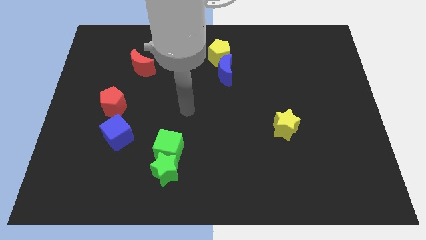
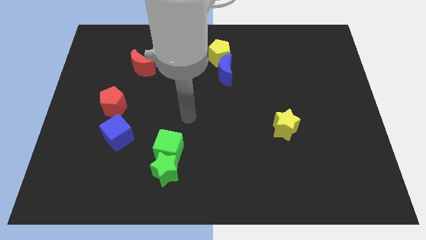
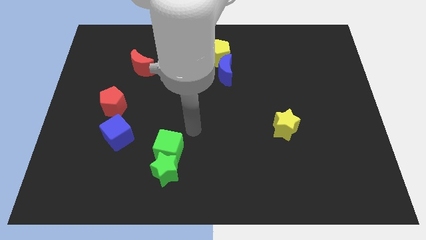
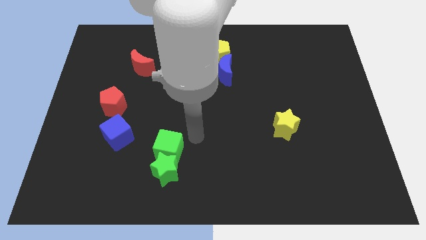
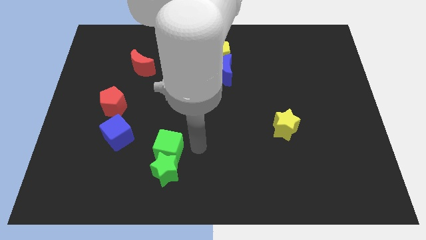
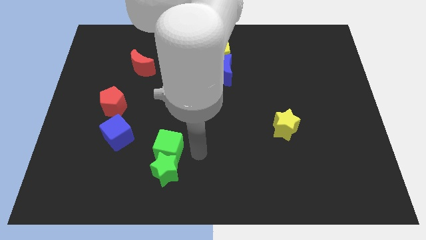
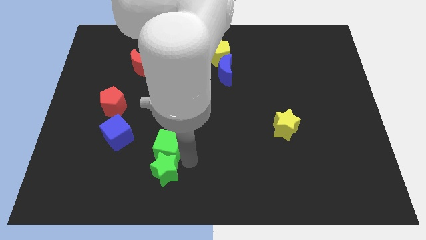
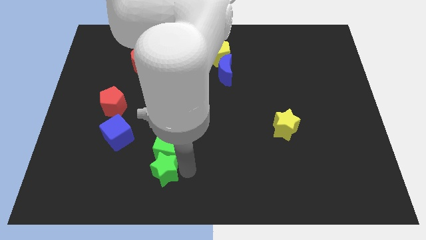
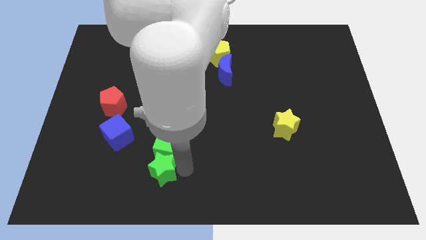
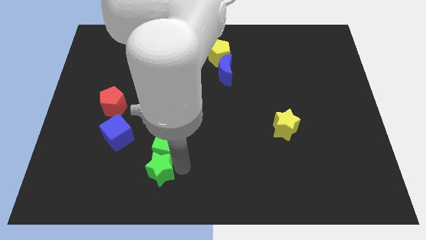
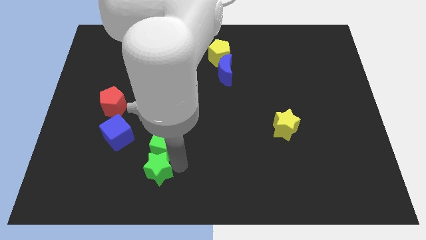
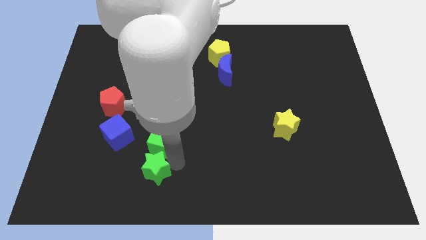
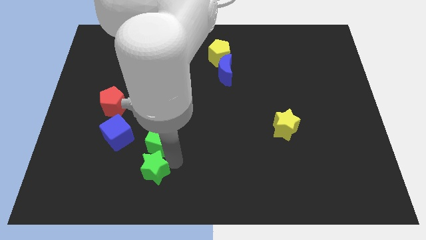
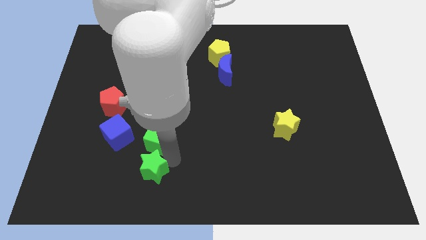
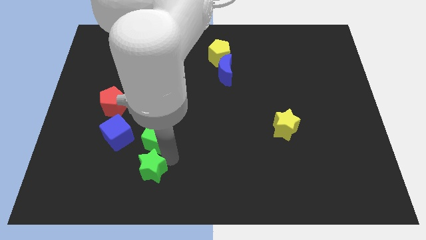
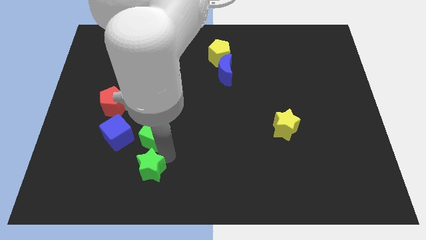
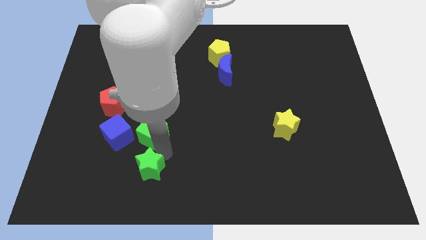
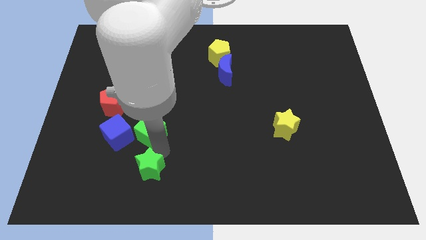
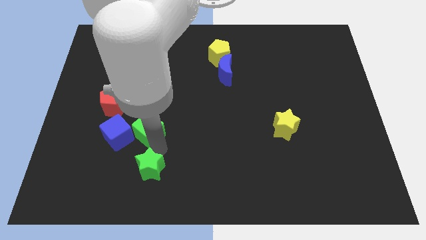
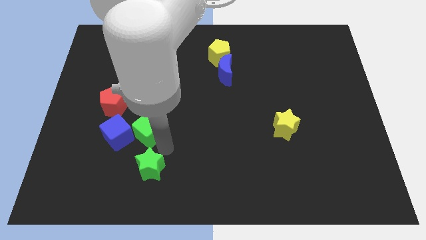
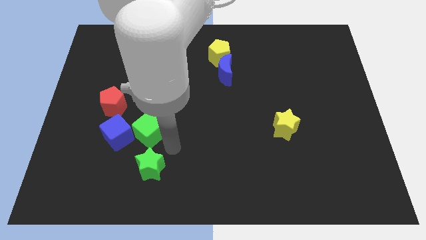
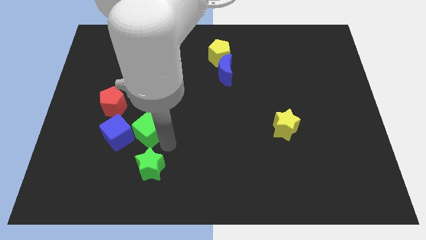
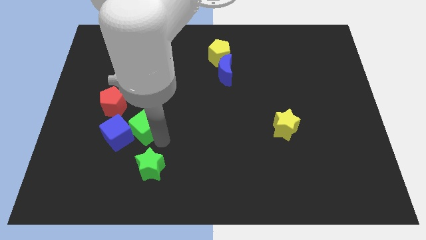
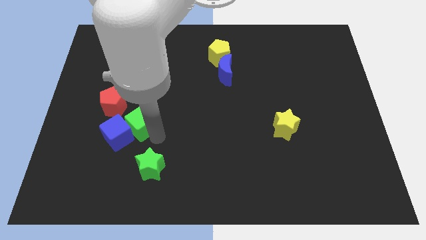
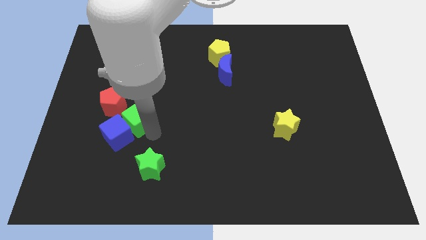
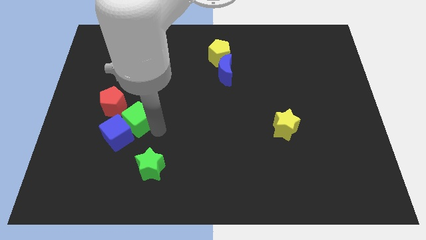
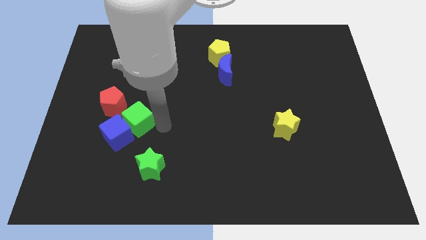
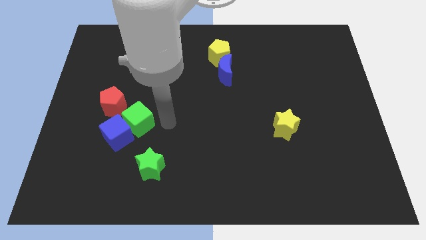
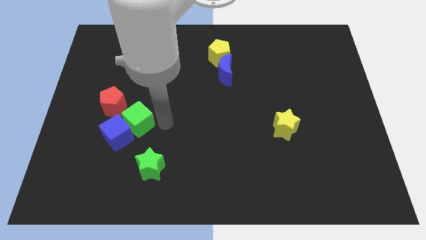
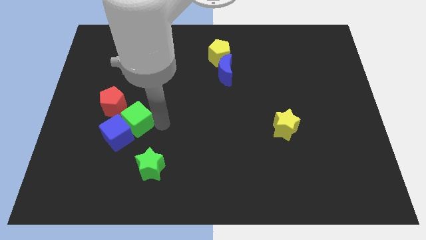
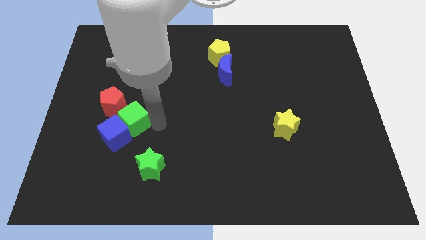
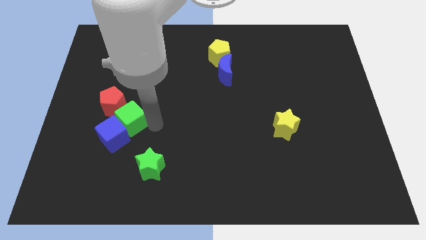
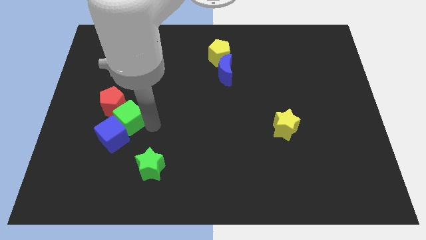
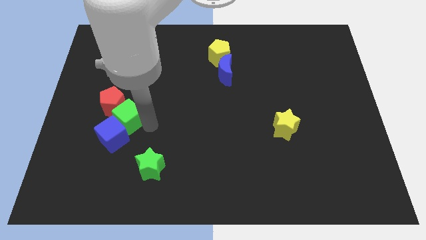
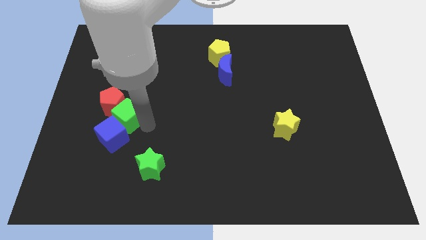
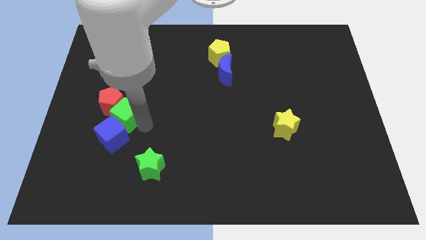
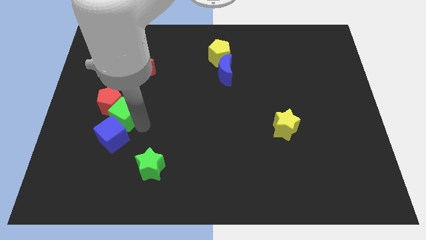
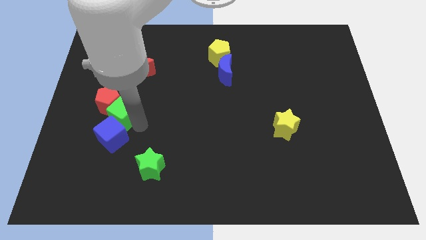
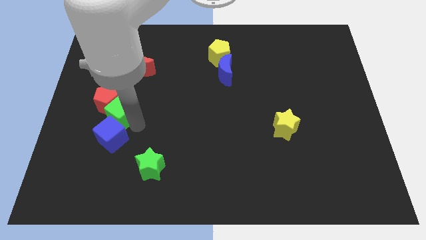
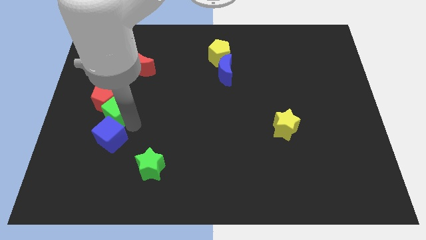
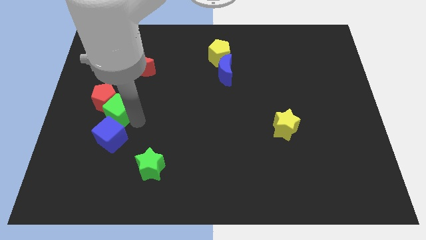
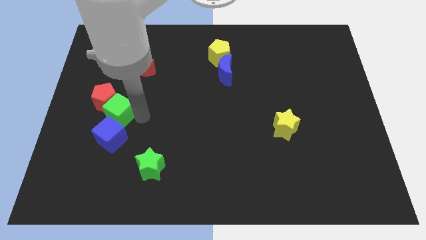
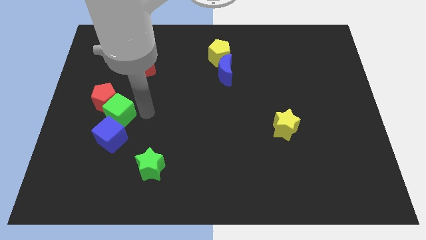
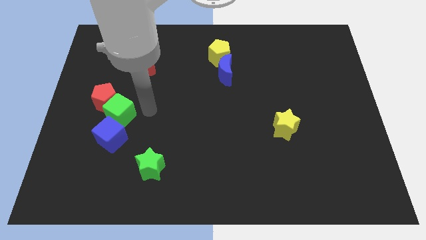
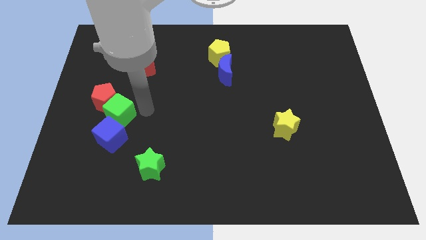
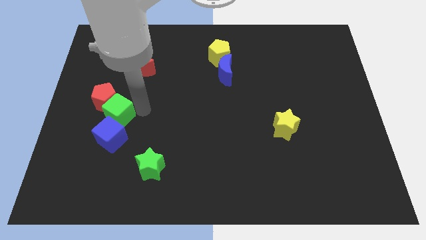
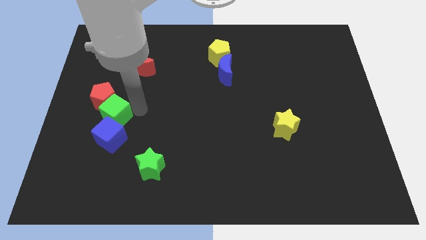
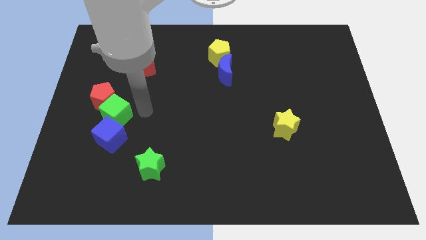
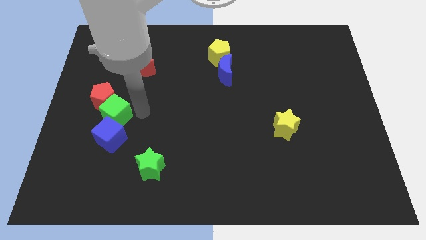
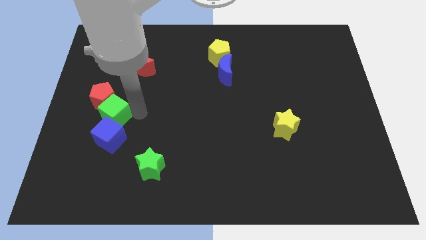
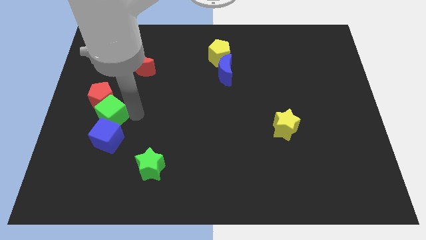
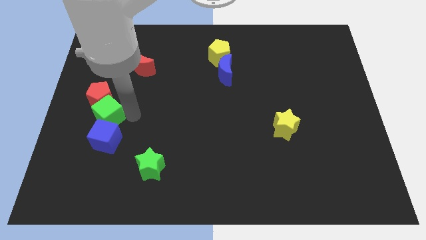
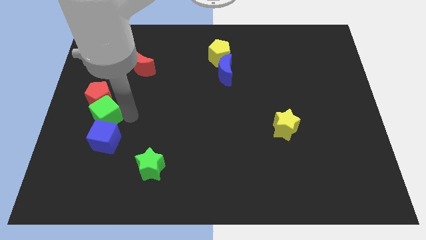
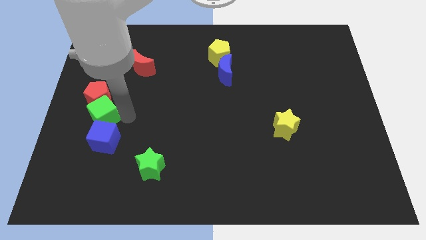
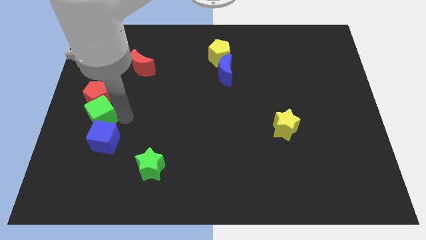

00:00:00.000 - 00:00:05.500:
put the green cube to the center left

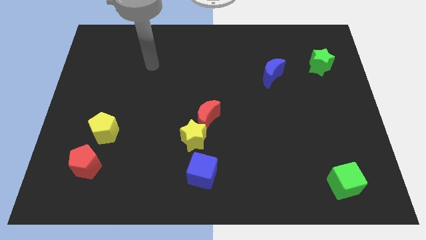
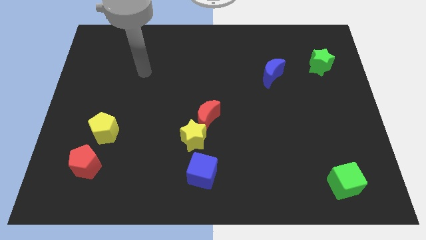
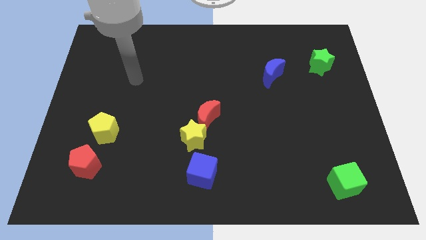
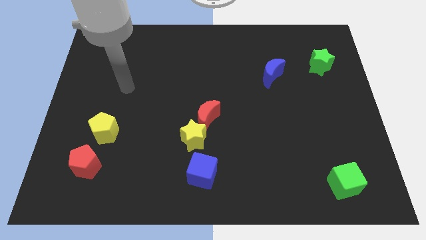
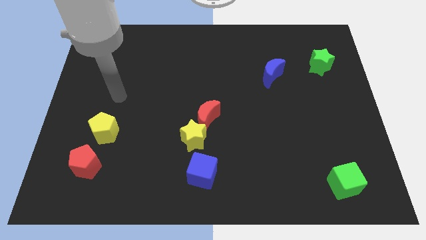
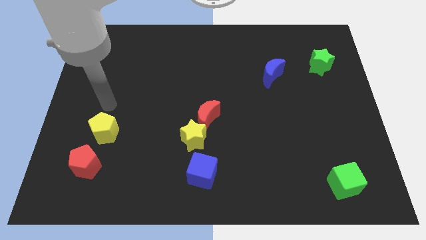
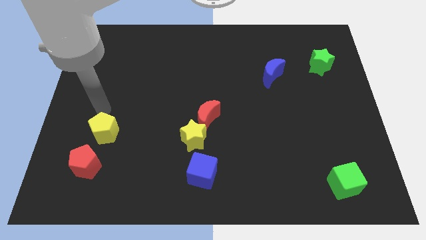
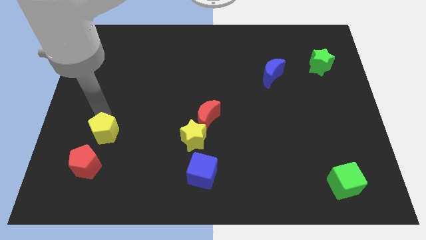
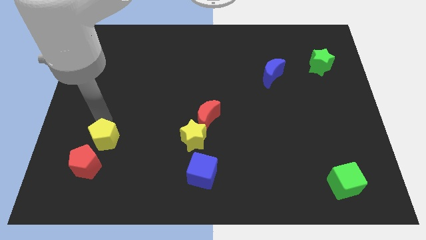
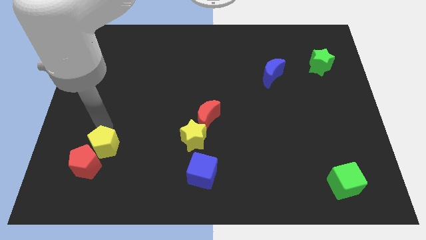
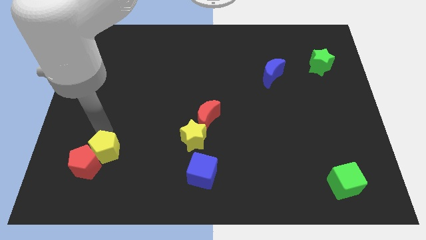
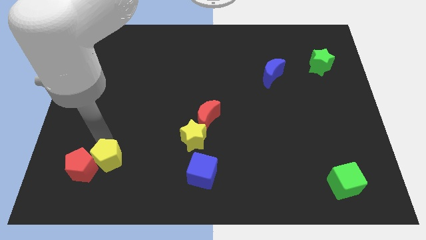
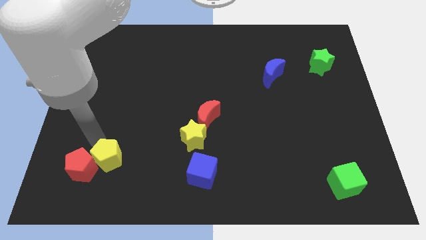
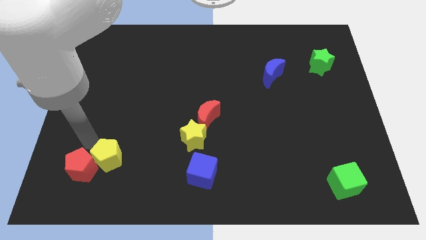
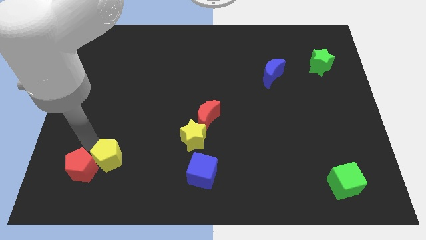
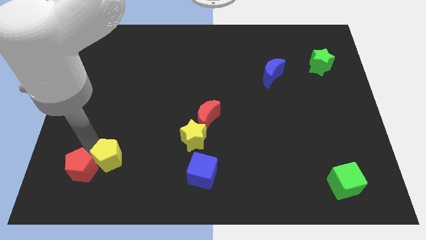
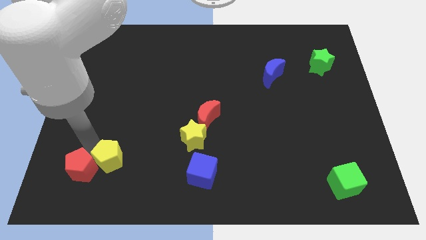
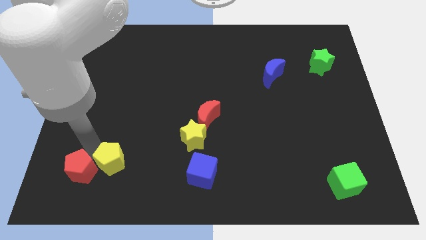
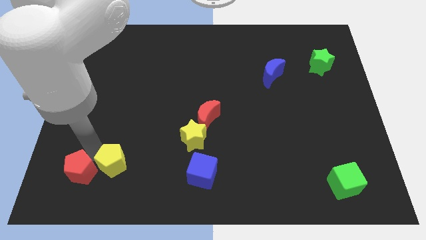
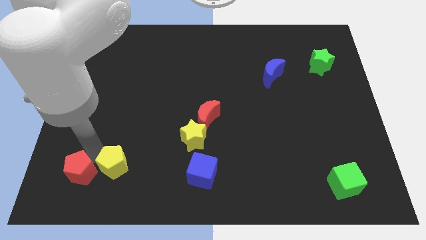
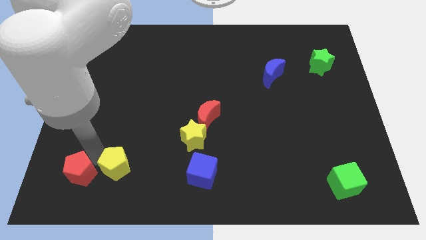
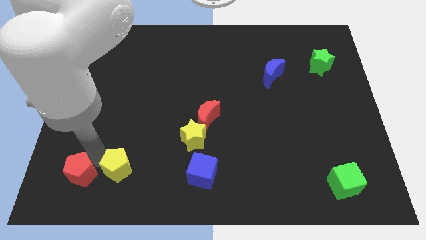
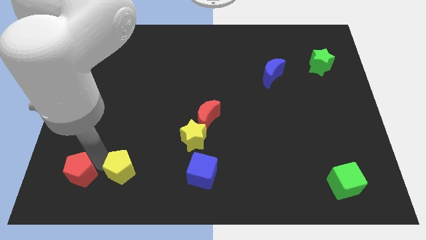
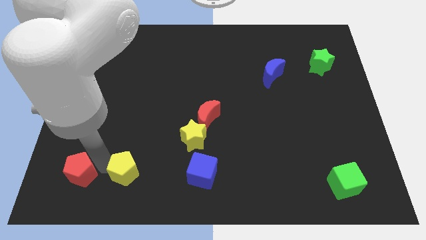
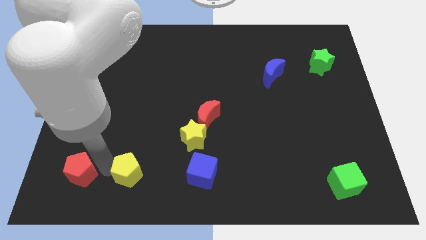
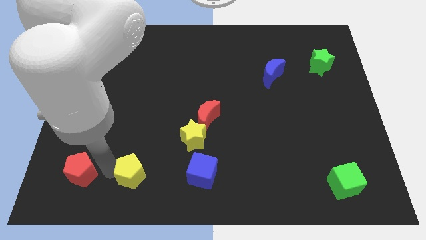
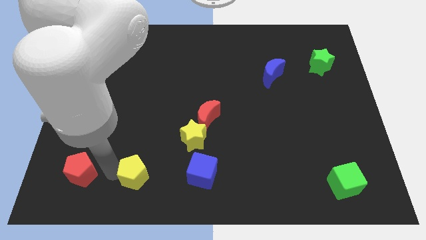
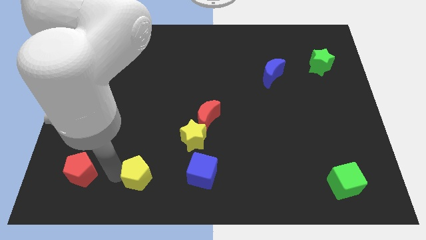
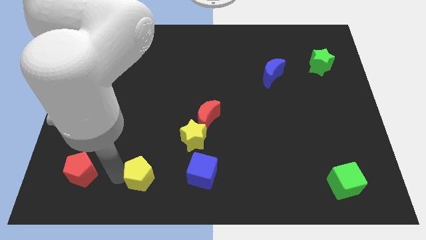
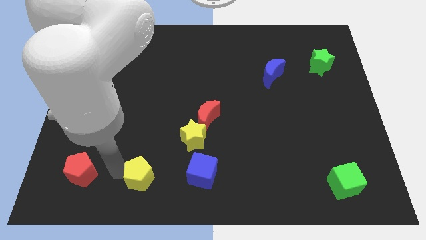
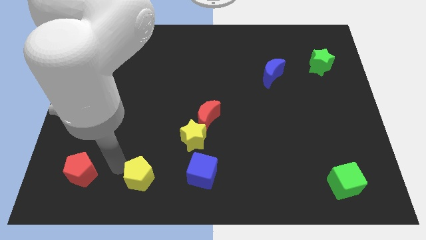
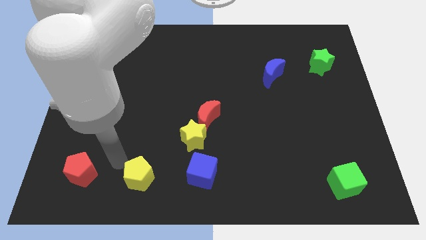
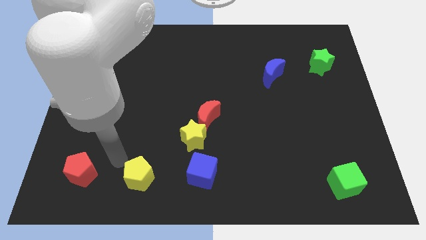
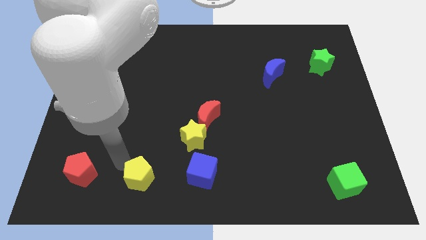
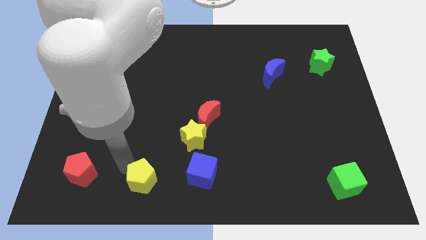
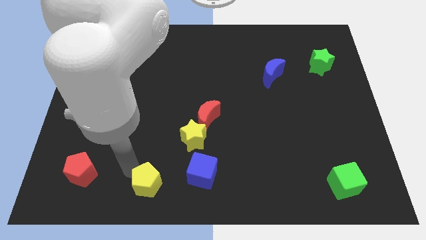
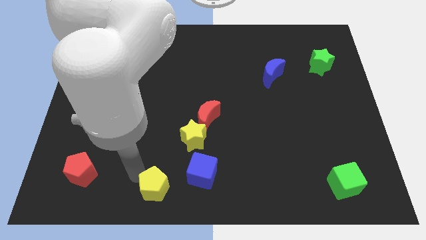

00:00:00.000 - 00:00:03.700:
push the yellow pentagon to the bottom
